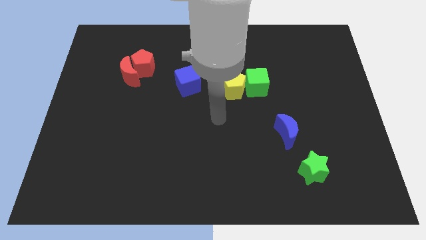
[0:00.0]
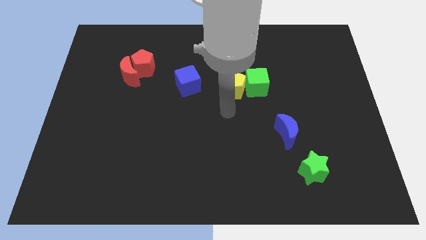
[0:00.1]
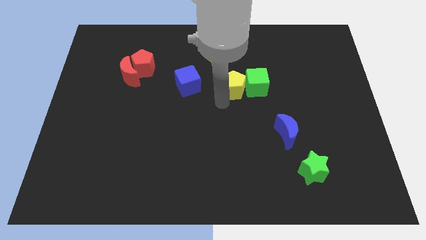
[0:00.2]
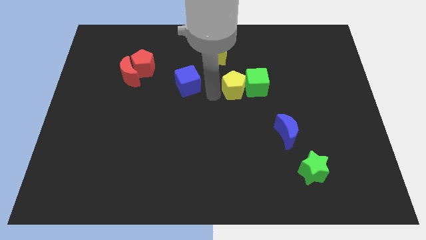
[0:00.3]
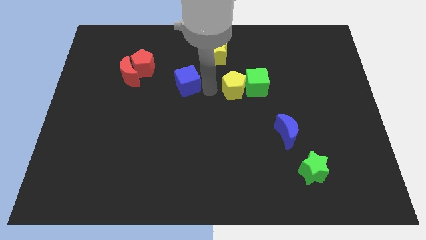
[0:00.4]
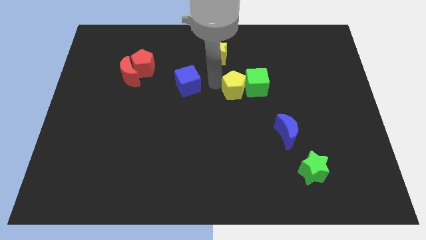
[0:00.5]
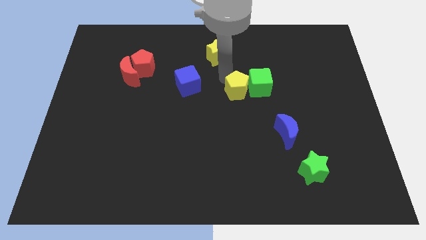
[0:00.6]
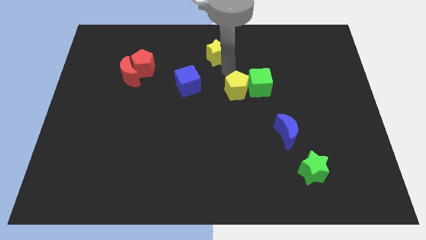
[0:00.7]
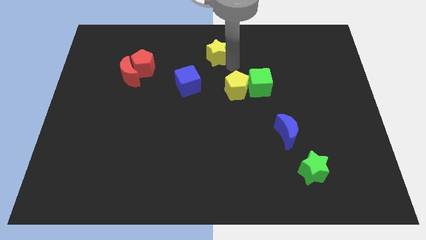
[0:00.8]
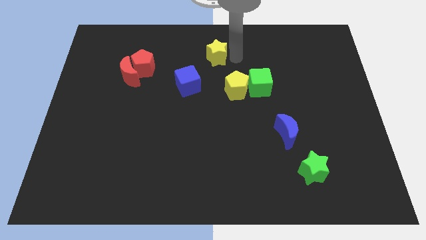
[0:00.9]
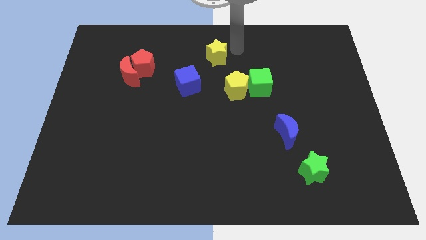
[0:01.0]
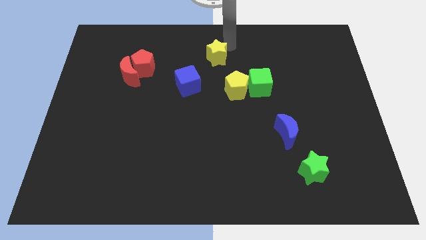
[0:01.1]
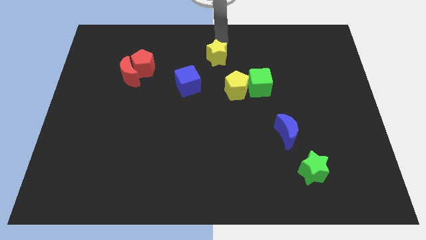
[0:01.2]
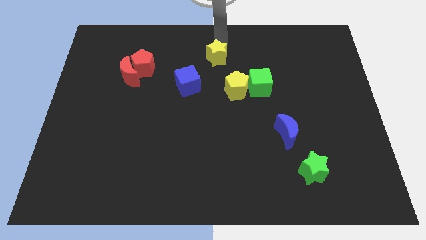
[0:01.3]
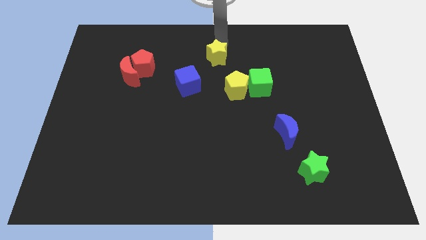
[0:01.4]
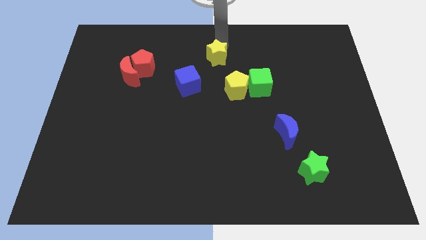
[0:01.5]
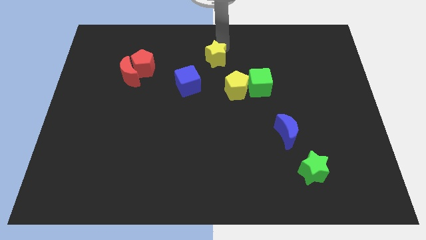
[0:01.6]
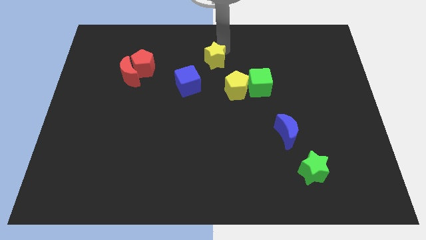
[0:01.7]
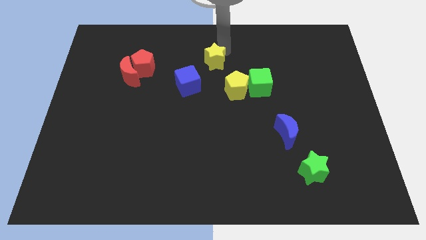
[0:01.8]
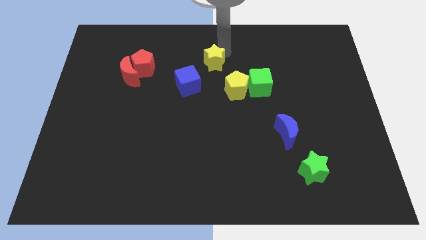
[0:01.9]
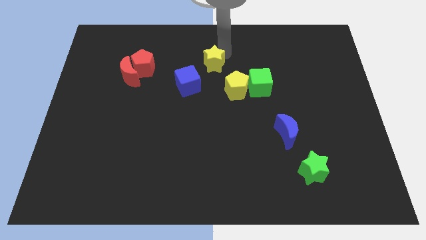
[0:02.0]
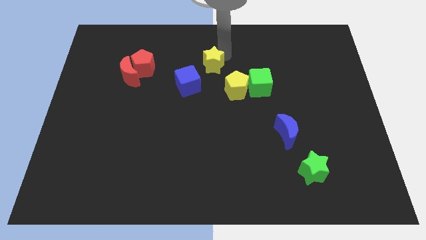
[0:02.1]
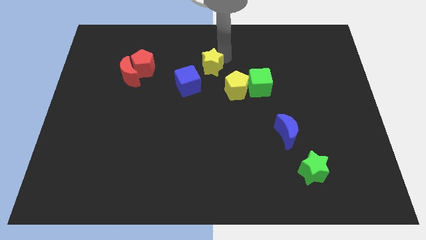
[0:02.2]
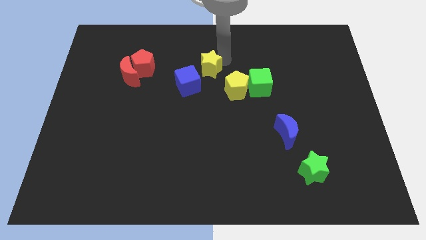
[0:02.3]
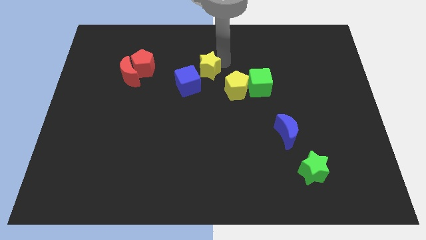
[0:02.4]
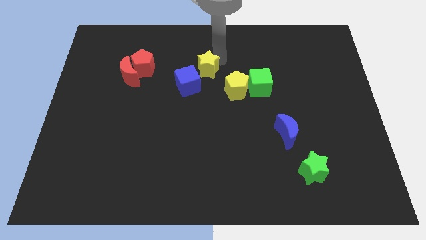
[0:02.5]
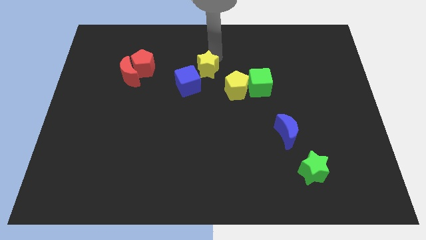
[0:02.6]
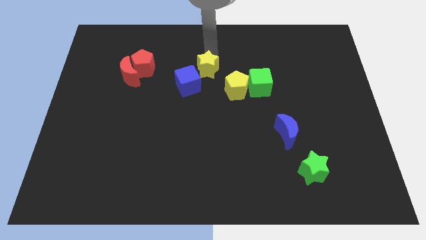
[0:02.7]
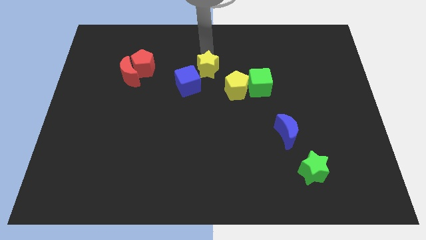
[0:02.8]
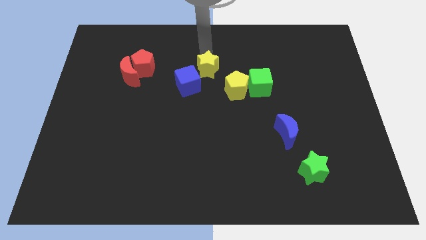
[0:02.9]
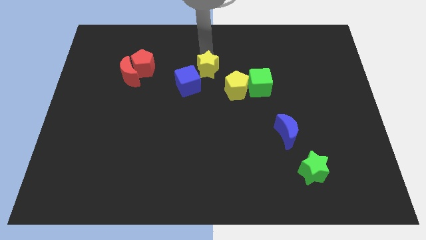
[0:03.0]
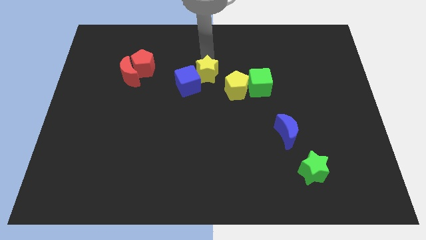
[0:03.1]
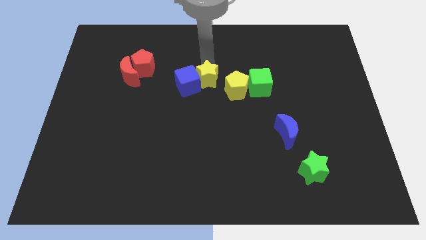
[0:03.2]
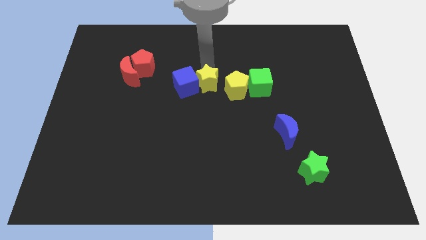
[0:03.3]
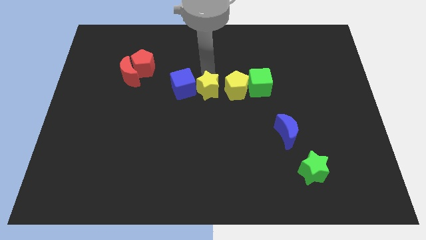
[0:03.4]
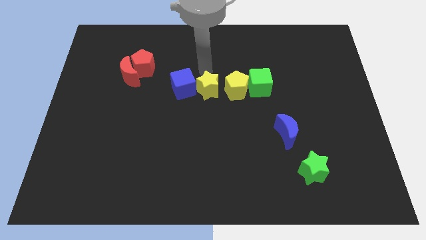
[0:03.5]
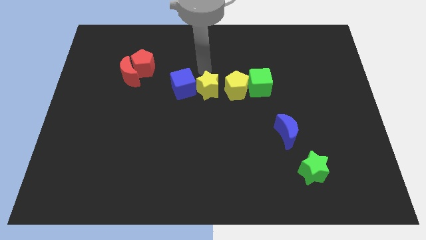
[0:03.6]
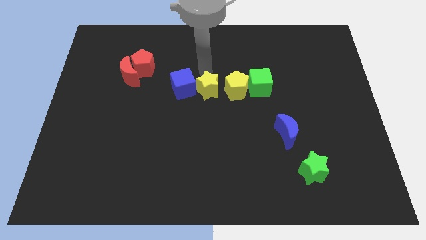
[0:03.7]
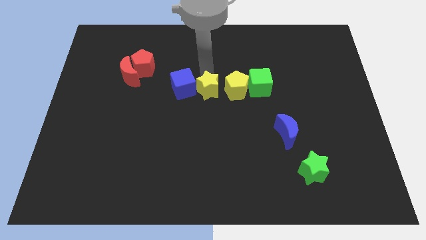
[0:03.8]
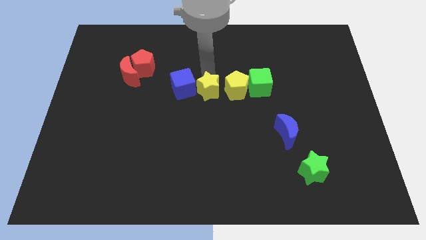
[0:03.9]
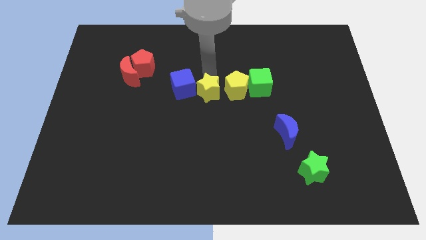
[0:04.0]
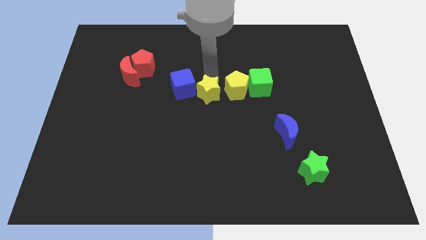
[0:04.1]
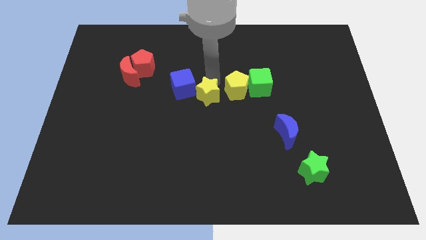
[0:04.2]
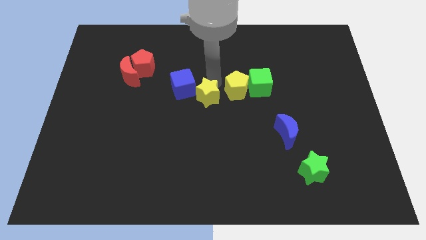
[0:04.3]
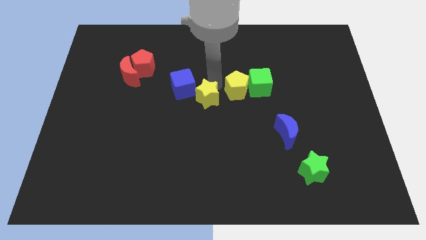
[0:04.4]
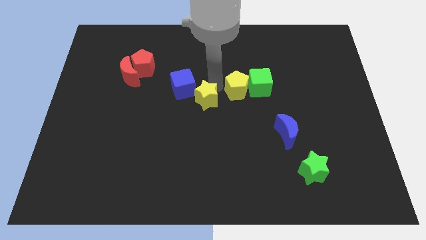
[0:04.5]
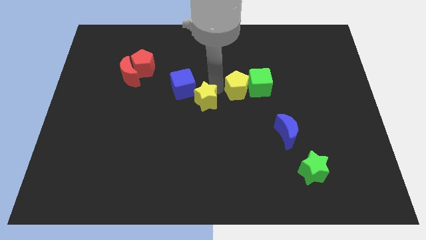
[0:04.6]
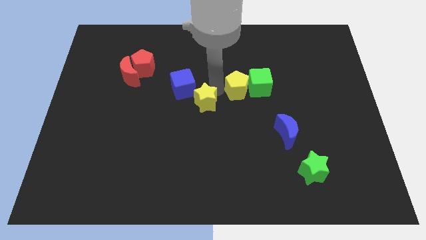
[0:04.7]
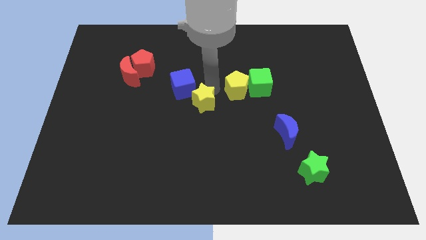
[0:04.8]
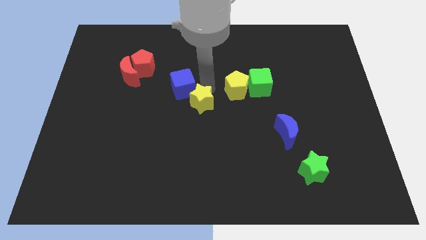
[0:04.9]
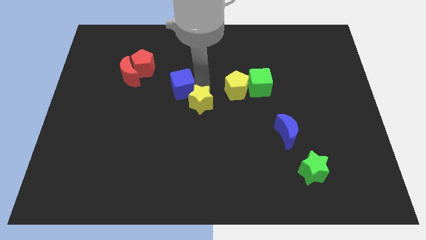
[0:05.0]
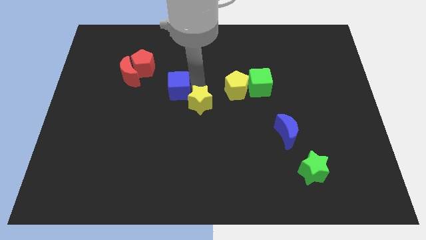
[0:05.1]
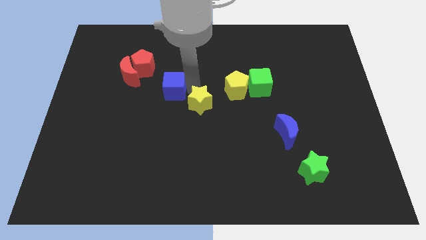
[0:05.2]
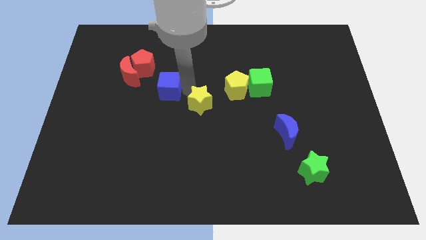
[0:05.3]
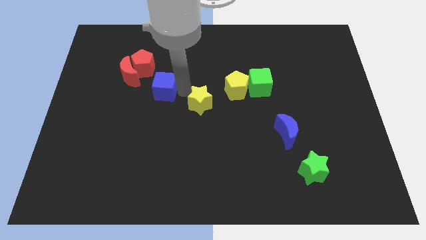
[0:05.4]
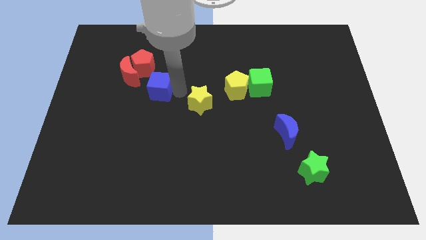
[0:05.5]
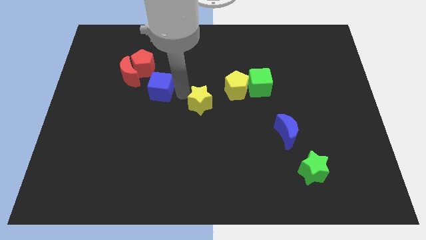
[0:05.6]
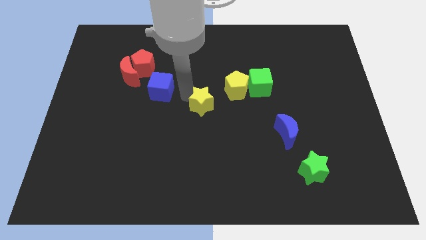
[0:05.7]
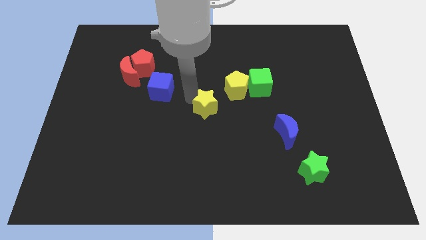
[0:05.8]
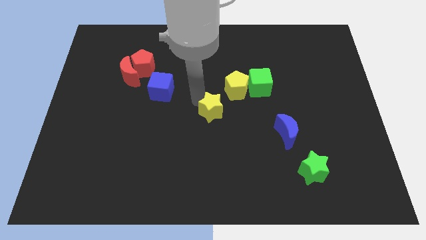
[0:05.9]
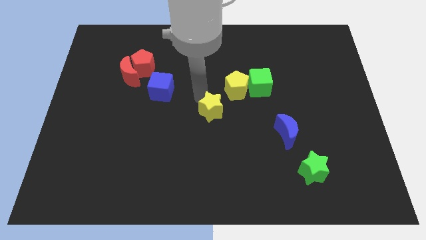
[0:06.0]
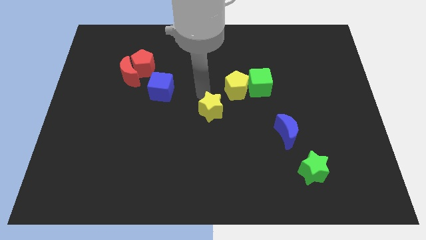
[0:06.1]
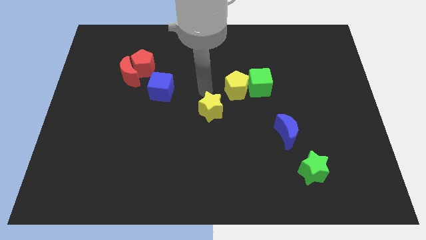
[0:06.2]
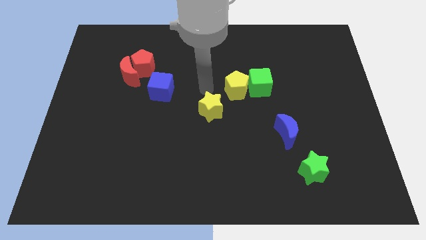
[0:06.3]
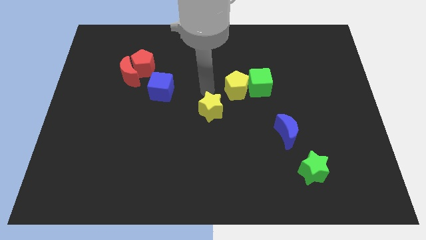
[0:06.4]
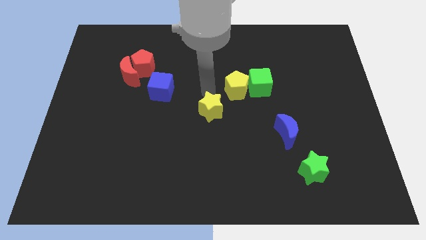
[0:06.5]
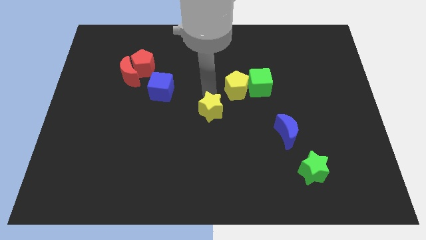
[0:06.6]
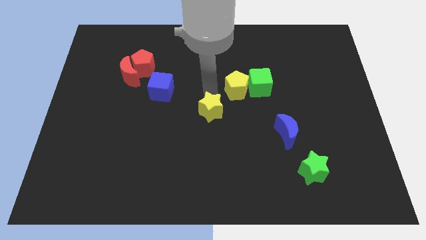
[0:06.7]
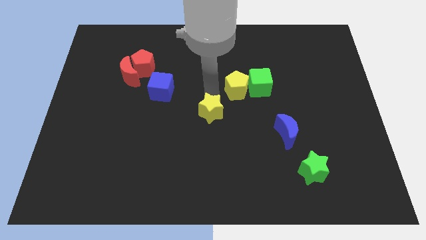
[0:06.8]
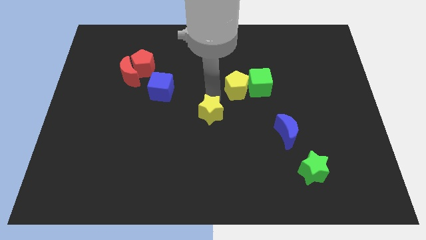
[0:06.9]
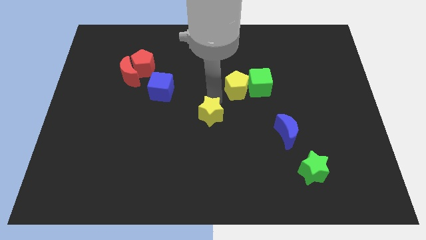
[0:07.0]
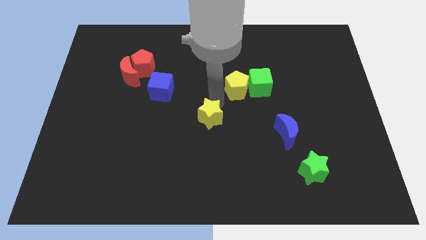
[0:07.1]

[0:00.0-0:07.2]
slide the yellow star down

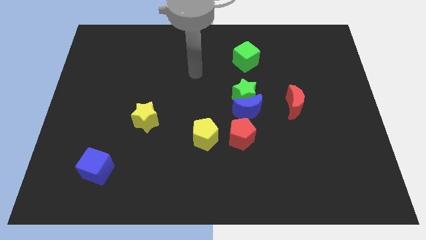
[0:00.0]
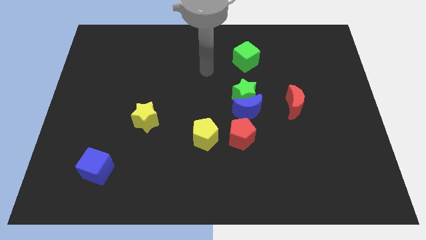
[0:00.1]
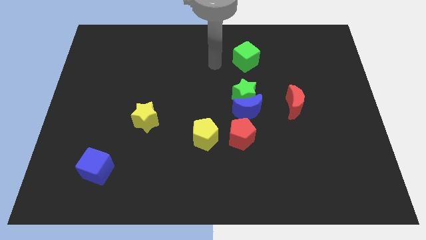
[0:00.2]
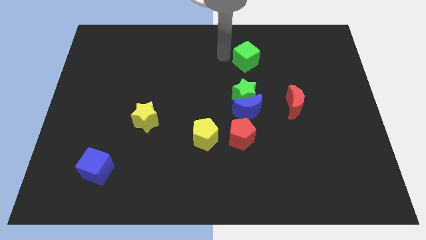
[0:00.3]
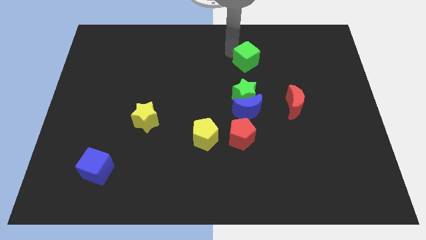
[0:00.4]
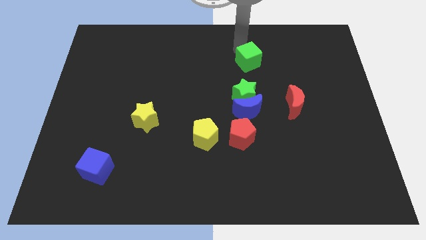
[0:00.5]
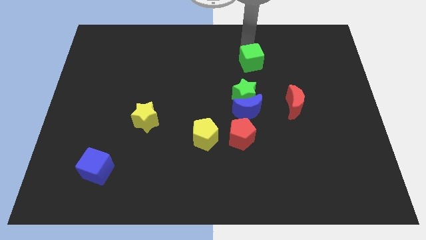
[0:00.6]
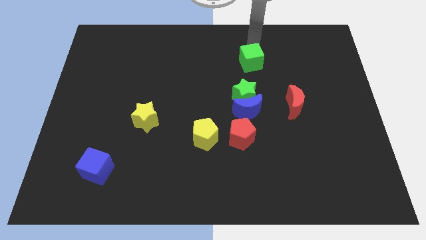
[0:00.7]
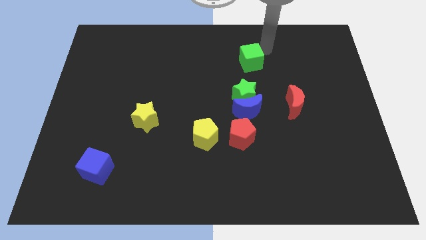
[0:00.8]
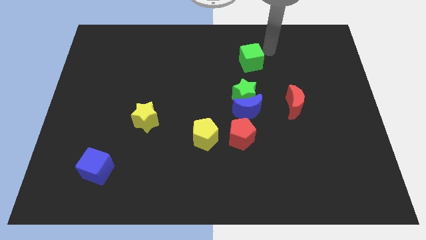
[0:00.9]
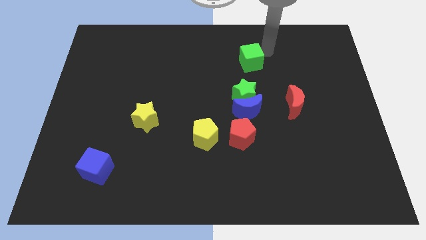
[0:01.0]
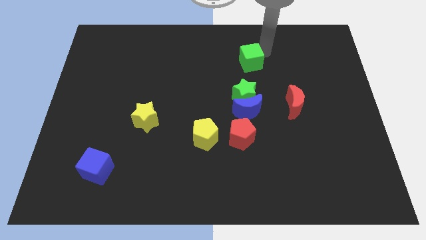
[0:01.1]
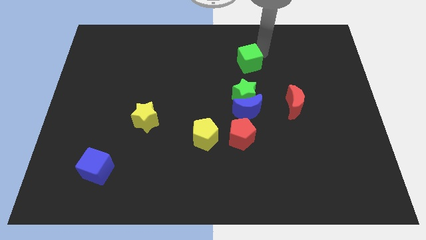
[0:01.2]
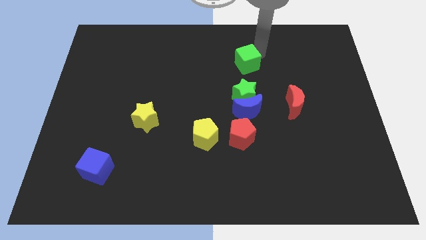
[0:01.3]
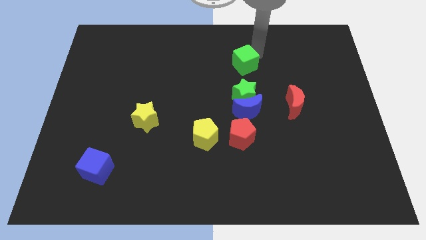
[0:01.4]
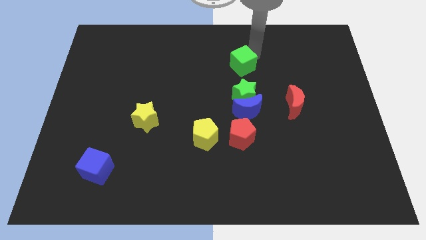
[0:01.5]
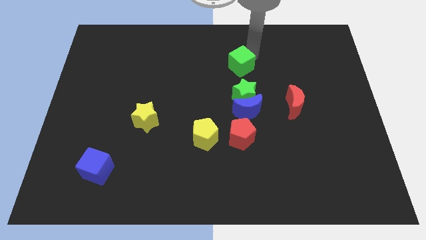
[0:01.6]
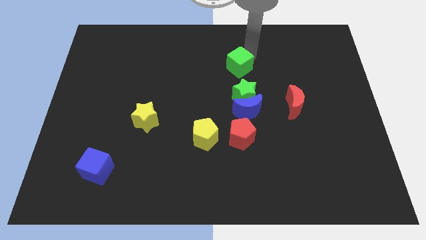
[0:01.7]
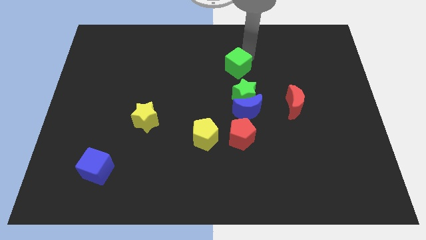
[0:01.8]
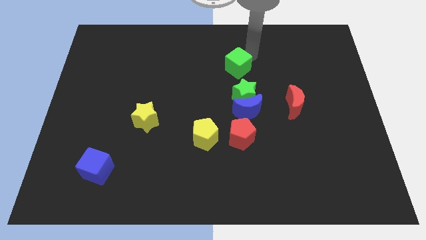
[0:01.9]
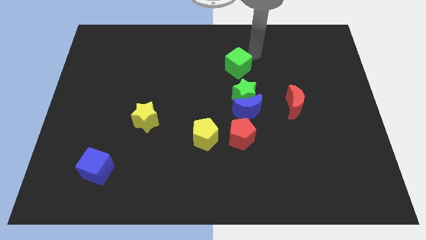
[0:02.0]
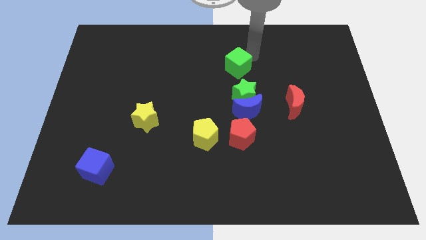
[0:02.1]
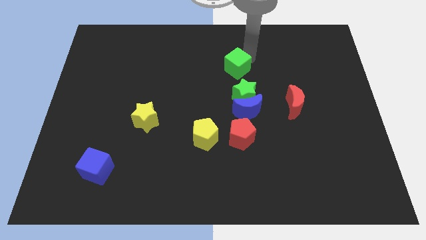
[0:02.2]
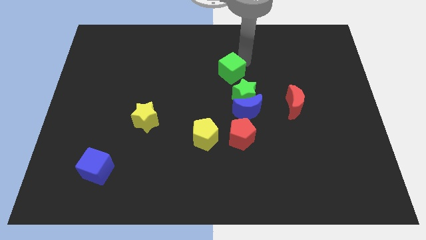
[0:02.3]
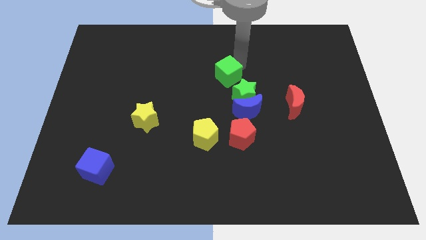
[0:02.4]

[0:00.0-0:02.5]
slightly move the green cube down and then to the left
